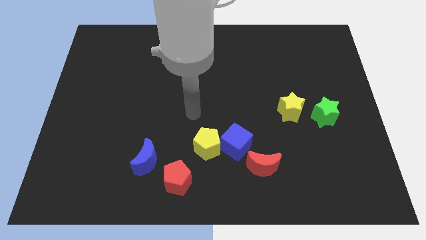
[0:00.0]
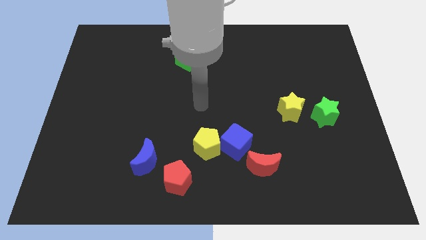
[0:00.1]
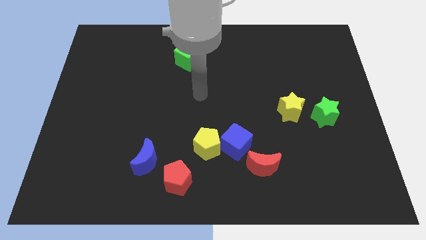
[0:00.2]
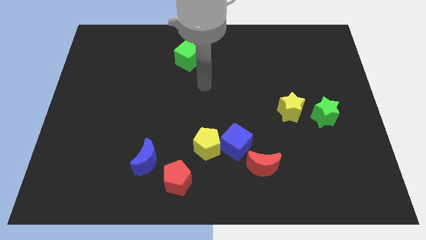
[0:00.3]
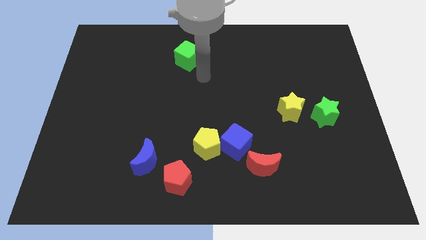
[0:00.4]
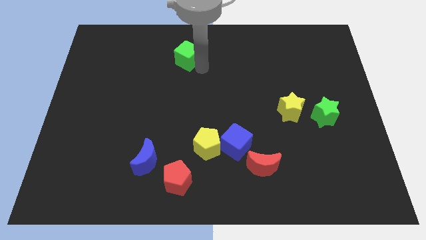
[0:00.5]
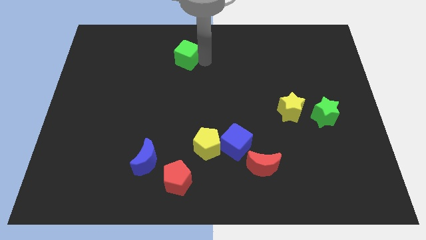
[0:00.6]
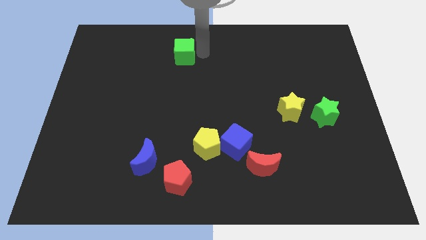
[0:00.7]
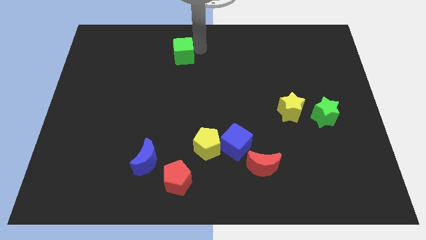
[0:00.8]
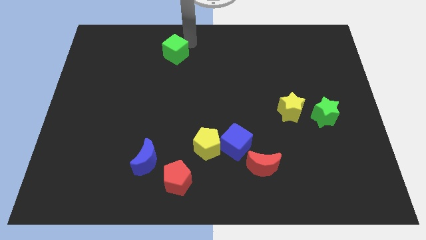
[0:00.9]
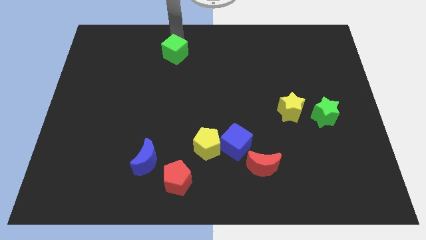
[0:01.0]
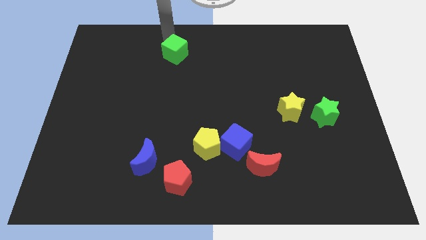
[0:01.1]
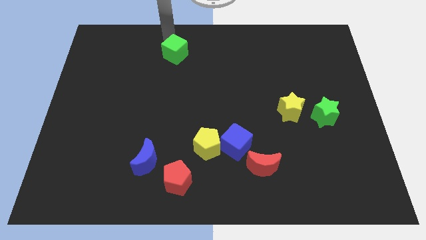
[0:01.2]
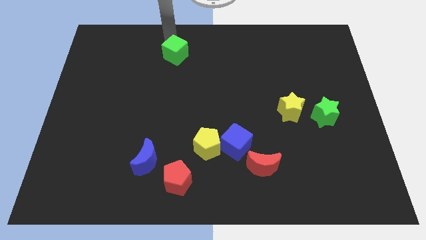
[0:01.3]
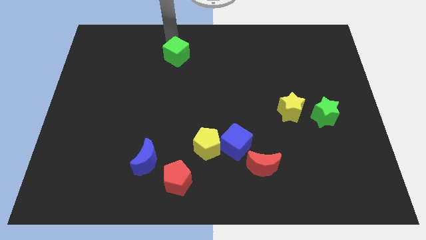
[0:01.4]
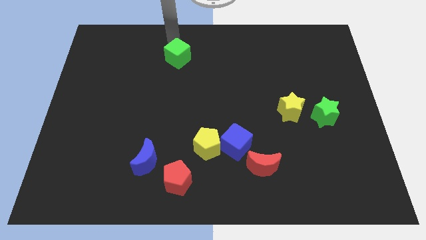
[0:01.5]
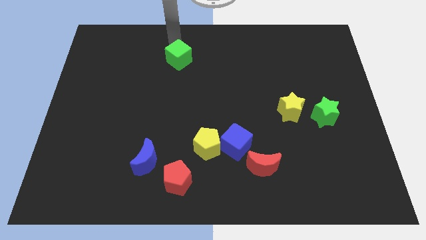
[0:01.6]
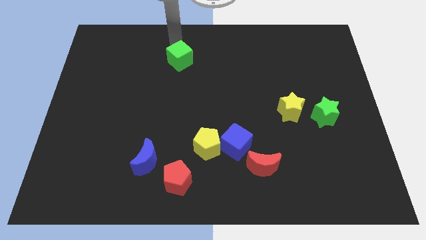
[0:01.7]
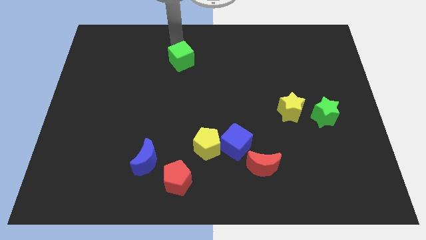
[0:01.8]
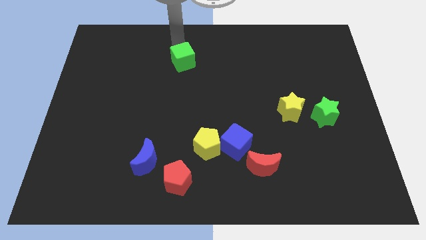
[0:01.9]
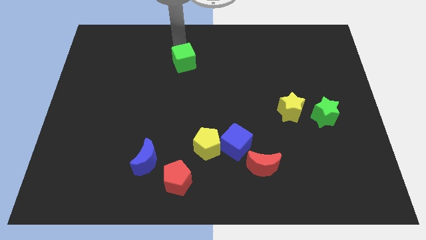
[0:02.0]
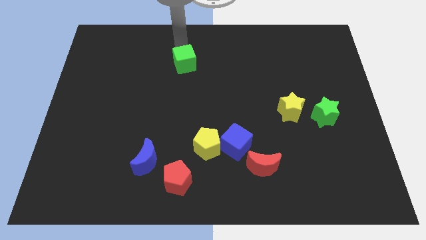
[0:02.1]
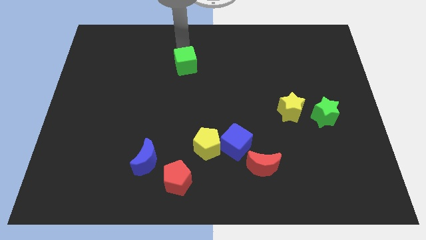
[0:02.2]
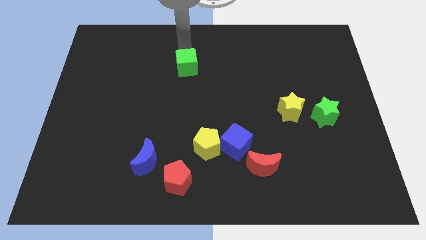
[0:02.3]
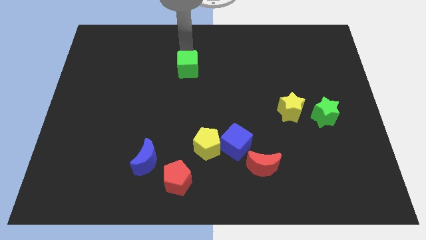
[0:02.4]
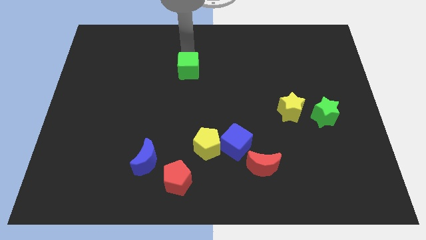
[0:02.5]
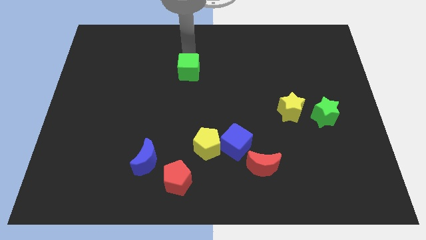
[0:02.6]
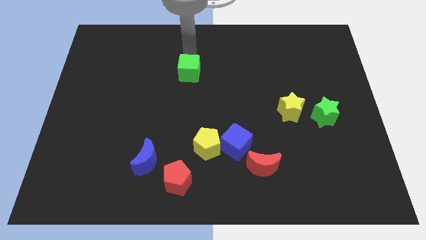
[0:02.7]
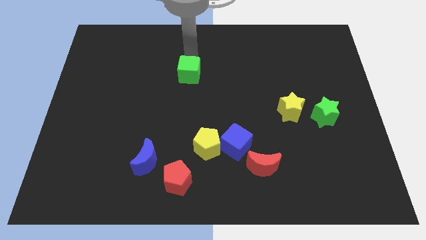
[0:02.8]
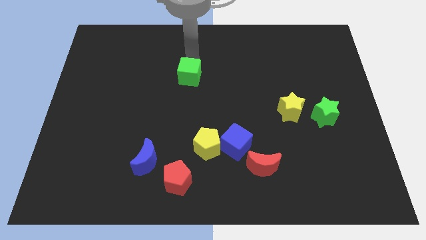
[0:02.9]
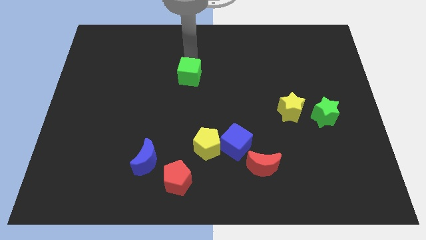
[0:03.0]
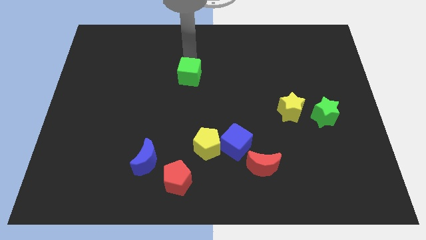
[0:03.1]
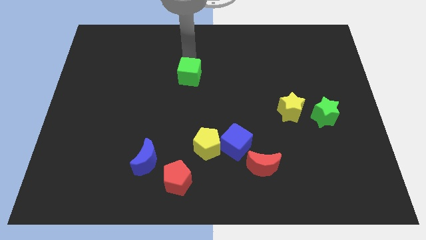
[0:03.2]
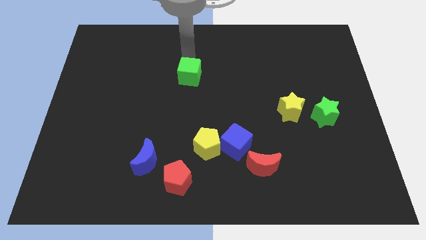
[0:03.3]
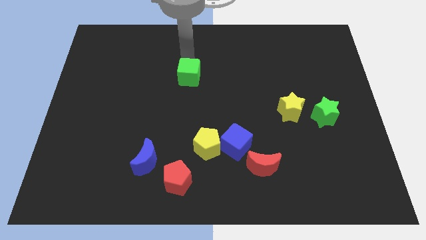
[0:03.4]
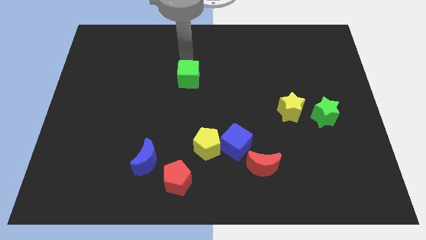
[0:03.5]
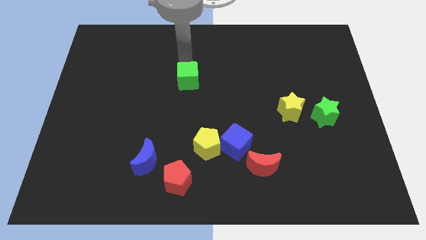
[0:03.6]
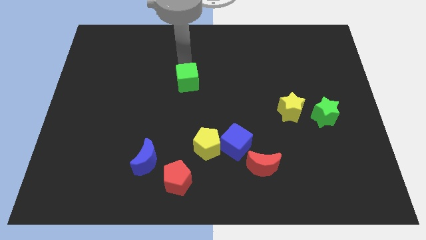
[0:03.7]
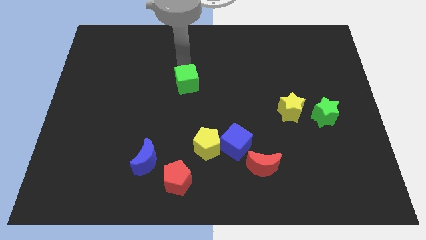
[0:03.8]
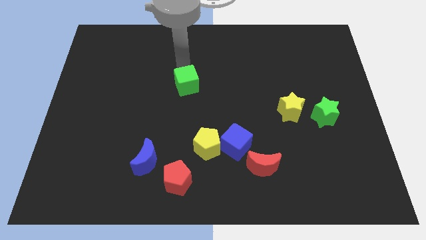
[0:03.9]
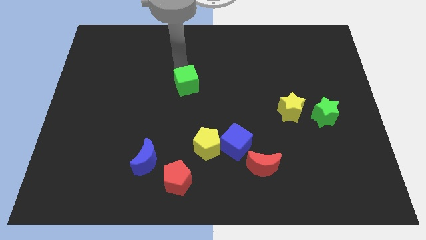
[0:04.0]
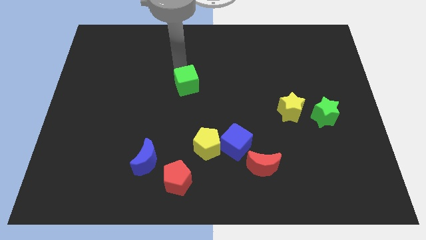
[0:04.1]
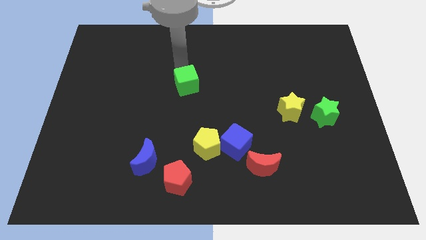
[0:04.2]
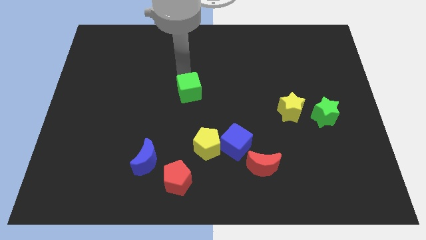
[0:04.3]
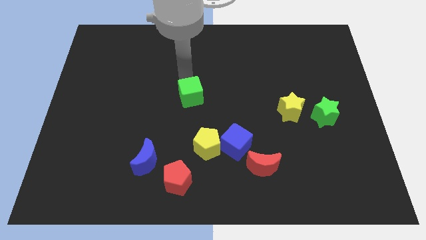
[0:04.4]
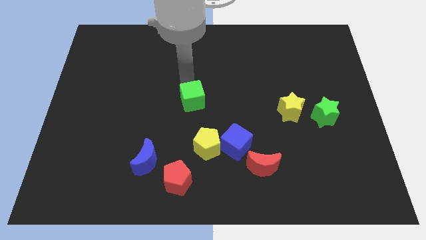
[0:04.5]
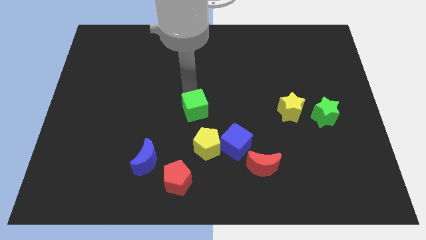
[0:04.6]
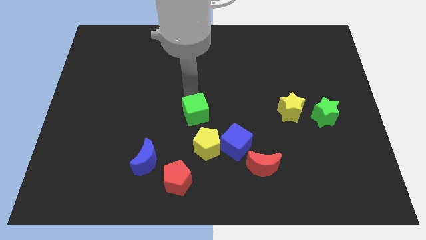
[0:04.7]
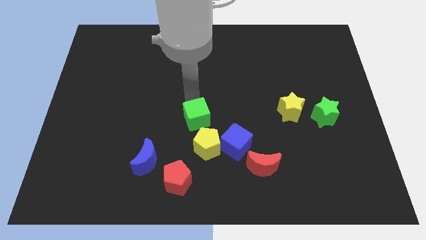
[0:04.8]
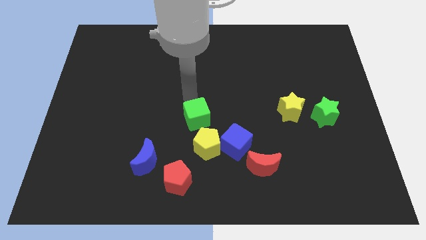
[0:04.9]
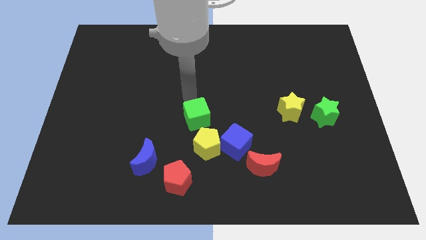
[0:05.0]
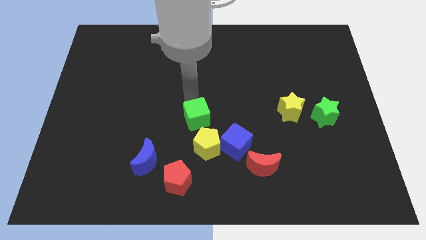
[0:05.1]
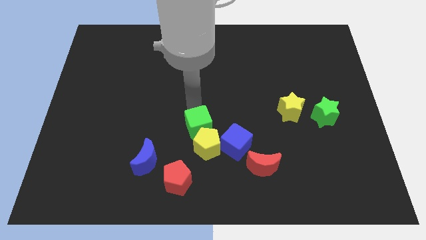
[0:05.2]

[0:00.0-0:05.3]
push the green cube next to the yellow pentagon

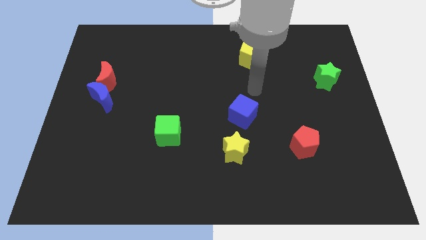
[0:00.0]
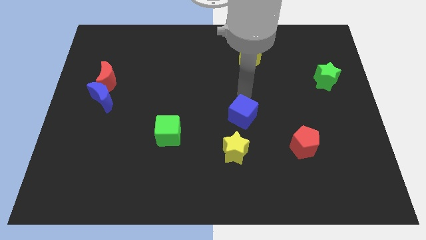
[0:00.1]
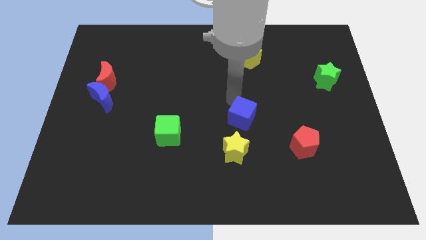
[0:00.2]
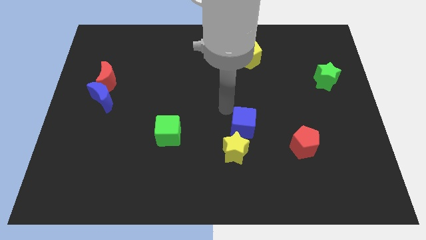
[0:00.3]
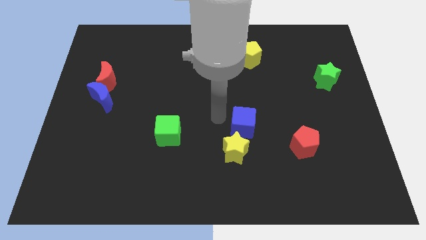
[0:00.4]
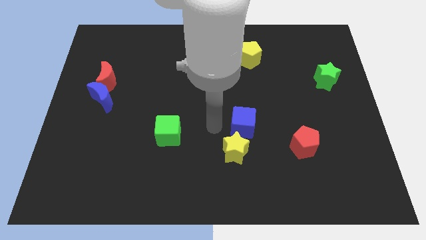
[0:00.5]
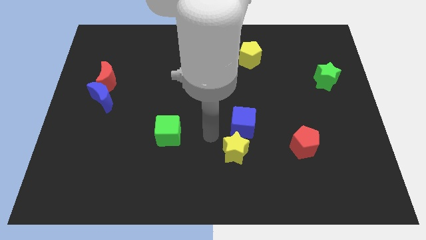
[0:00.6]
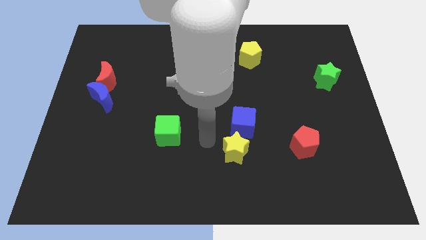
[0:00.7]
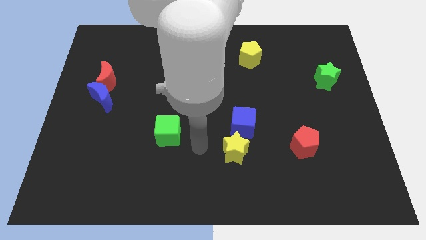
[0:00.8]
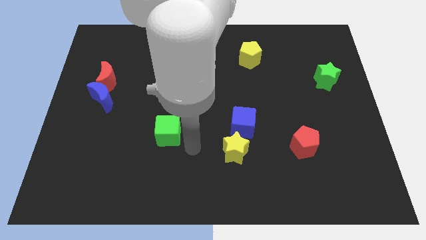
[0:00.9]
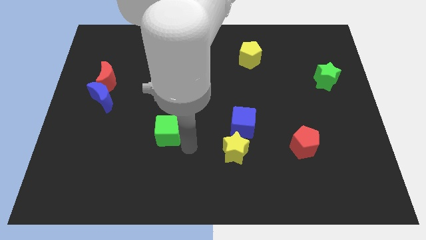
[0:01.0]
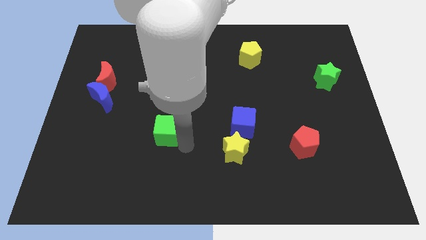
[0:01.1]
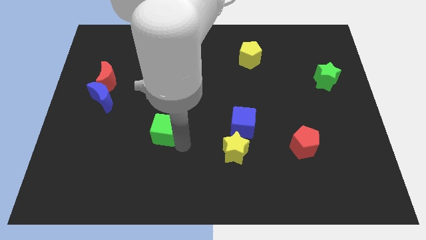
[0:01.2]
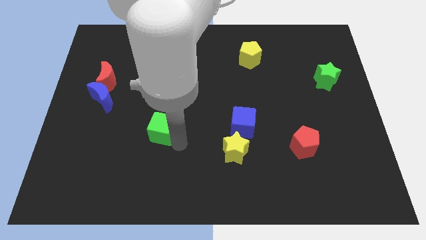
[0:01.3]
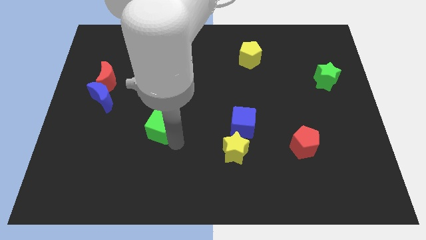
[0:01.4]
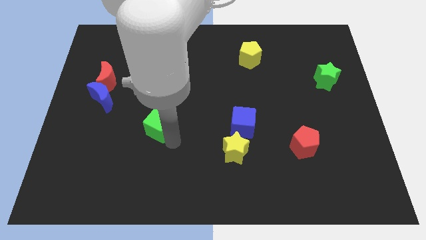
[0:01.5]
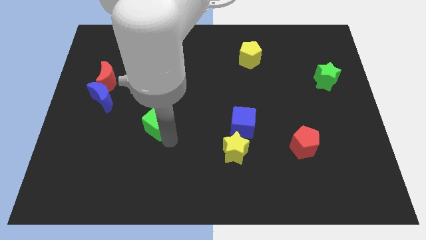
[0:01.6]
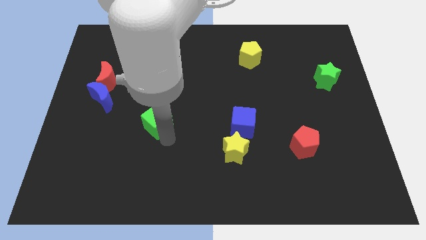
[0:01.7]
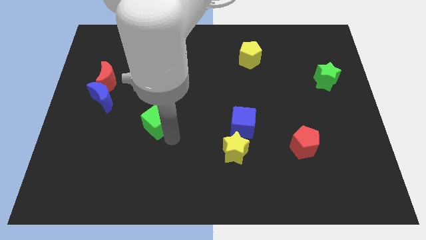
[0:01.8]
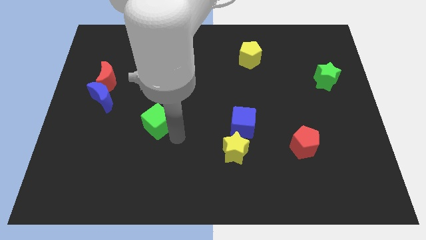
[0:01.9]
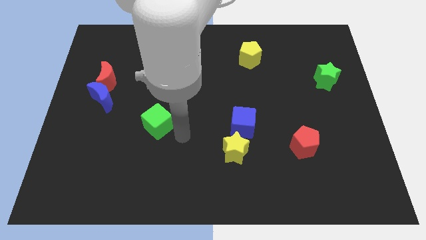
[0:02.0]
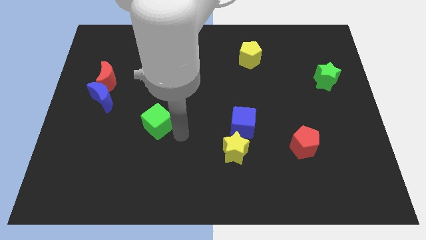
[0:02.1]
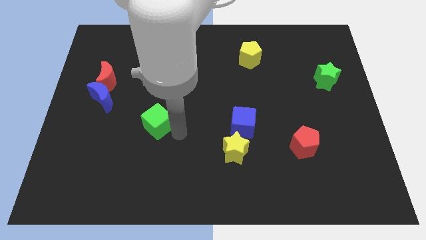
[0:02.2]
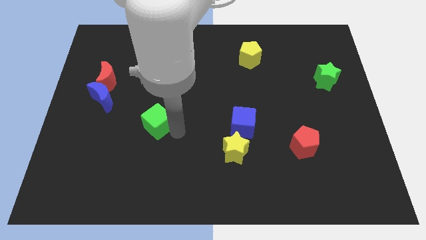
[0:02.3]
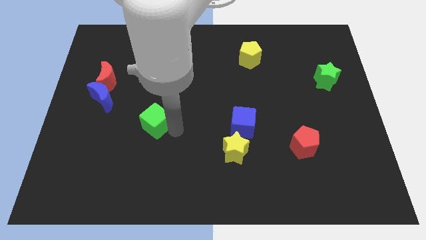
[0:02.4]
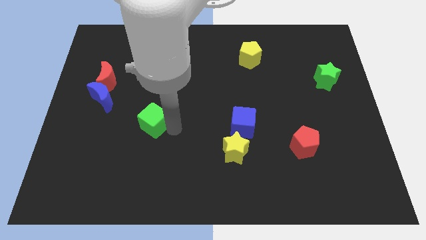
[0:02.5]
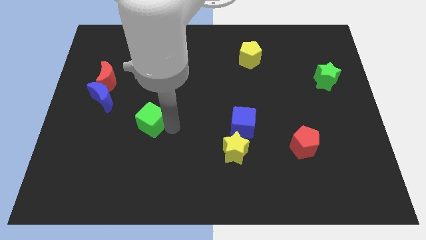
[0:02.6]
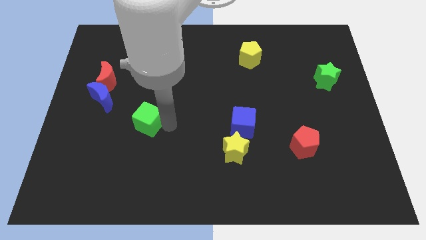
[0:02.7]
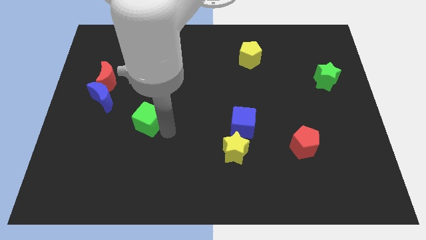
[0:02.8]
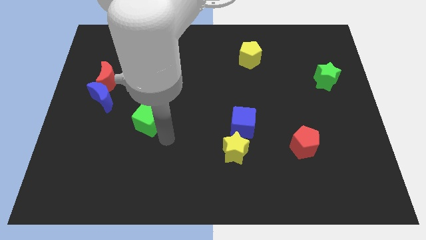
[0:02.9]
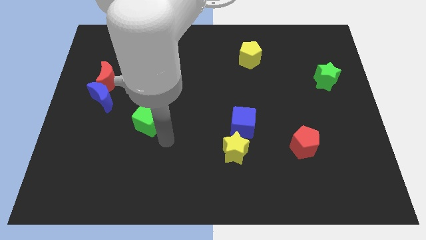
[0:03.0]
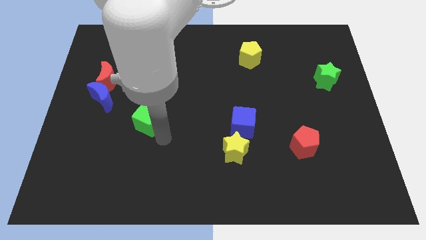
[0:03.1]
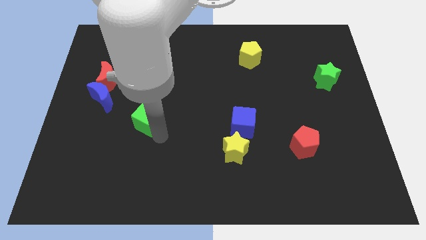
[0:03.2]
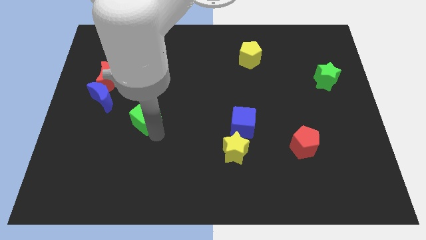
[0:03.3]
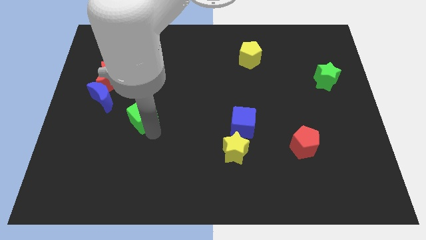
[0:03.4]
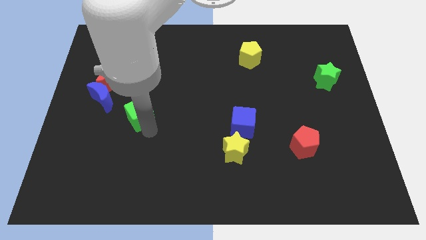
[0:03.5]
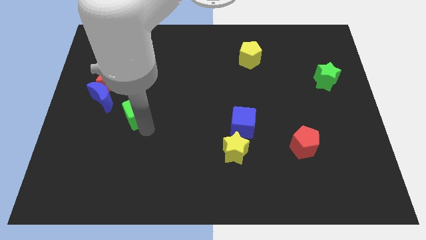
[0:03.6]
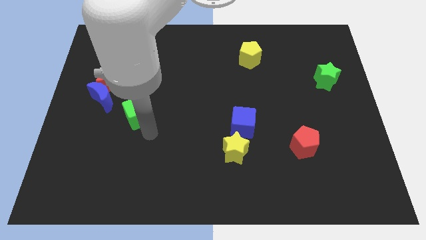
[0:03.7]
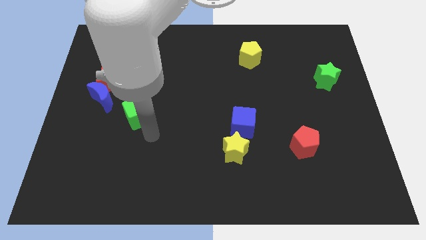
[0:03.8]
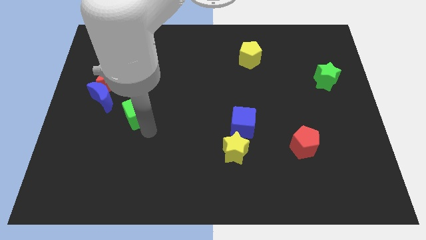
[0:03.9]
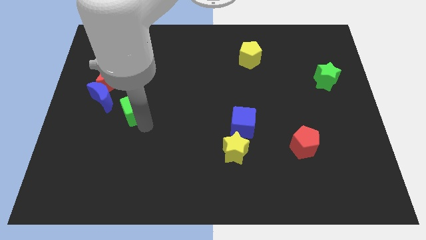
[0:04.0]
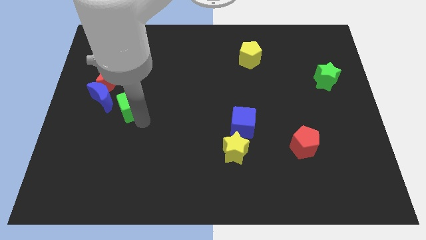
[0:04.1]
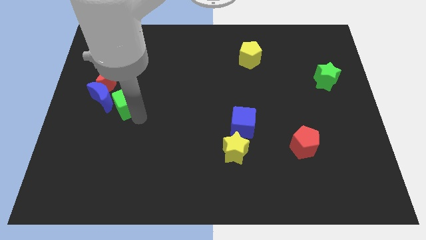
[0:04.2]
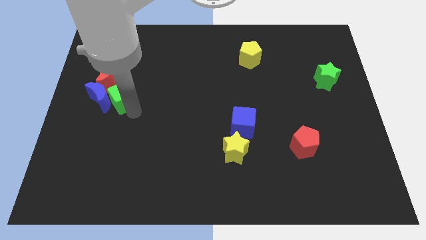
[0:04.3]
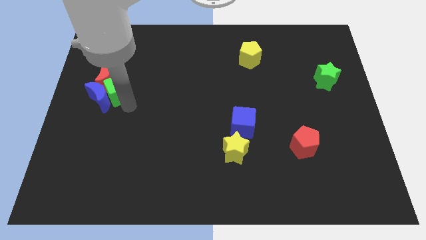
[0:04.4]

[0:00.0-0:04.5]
slide the green cube close to the red moon
